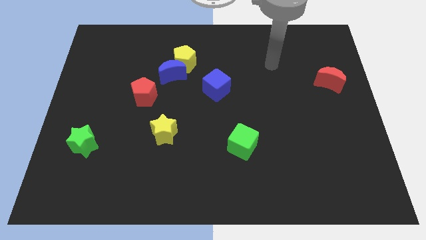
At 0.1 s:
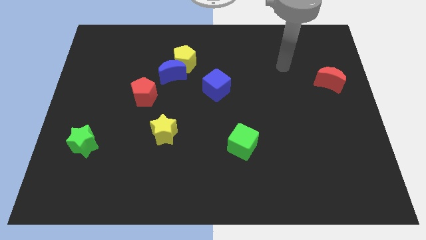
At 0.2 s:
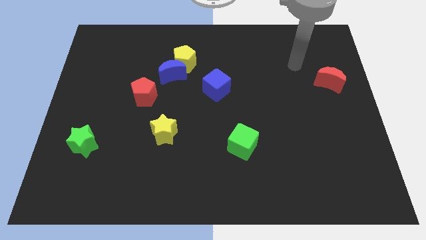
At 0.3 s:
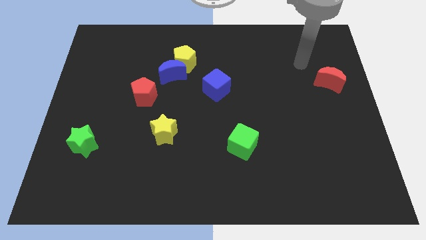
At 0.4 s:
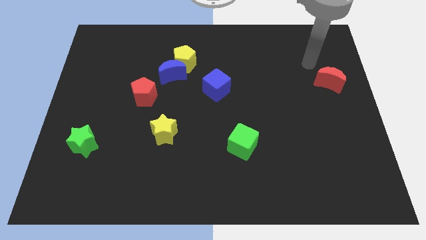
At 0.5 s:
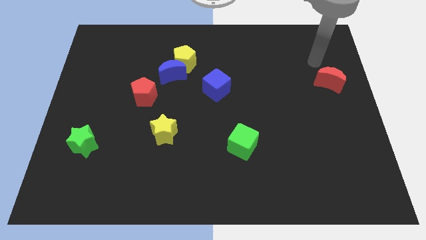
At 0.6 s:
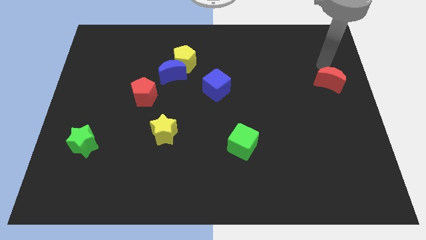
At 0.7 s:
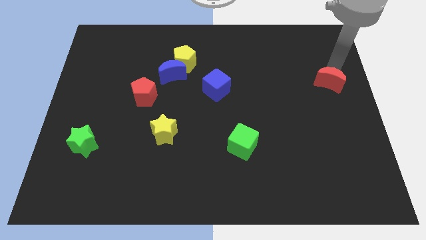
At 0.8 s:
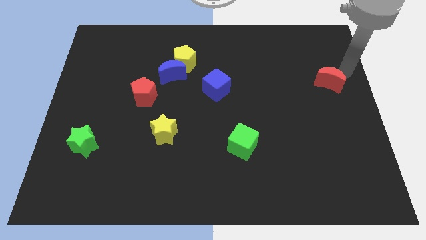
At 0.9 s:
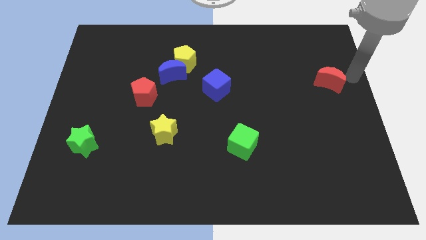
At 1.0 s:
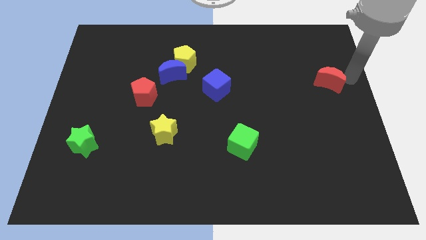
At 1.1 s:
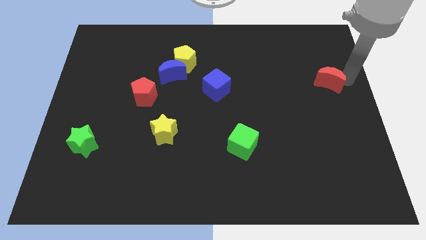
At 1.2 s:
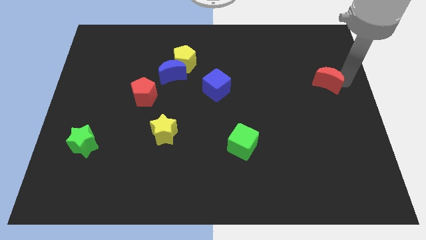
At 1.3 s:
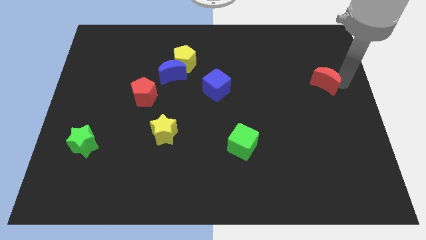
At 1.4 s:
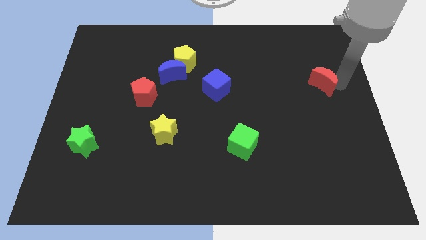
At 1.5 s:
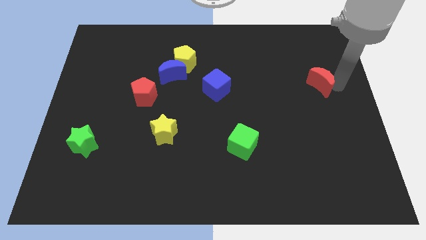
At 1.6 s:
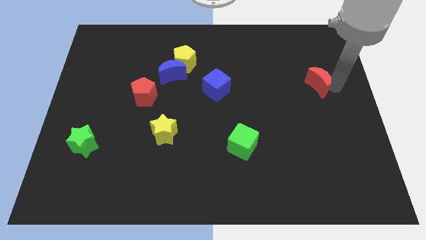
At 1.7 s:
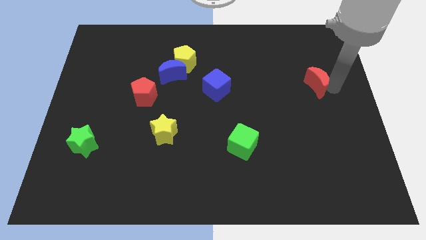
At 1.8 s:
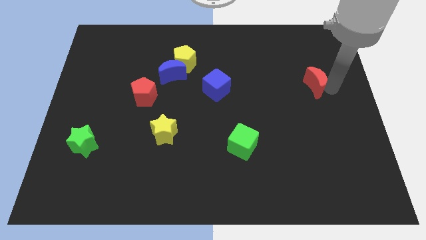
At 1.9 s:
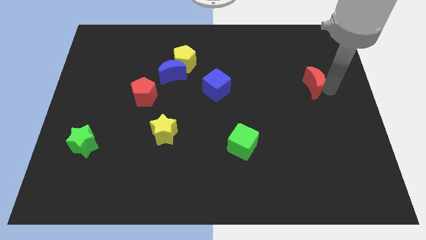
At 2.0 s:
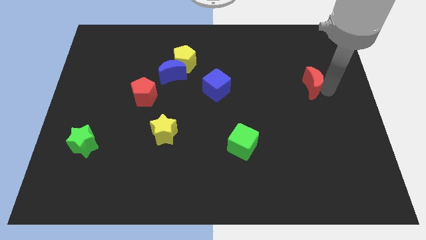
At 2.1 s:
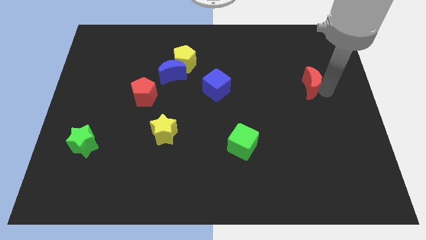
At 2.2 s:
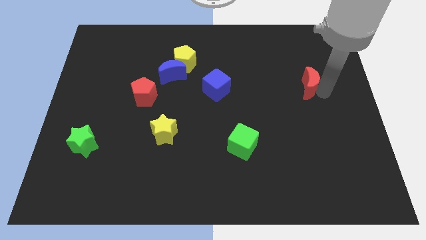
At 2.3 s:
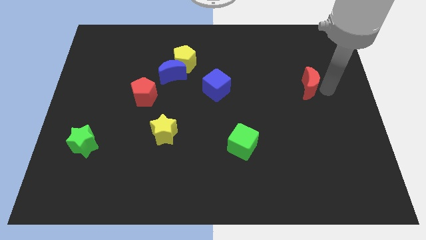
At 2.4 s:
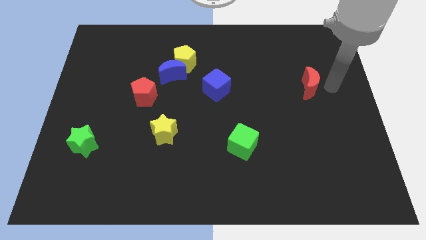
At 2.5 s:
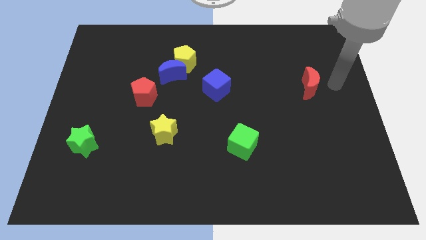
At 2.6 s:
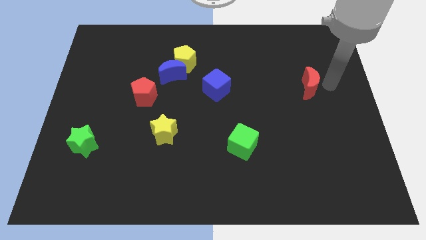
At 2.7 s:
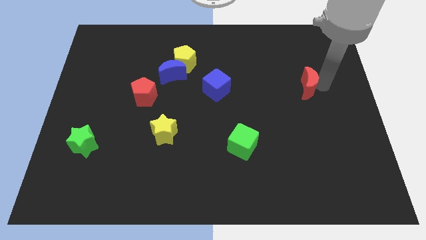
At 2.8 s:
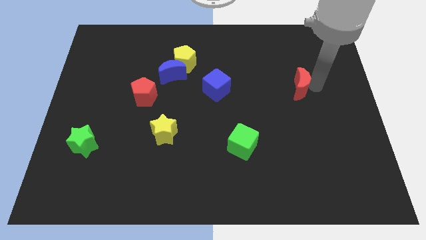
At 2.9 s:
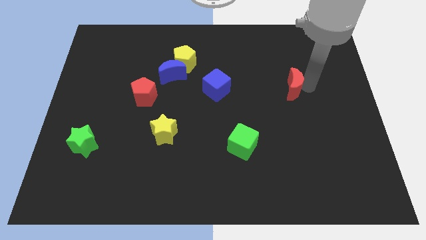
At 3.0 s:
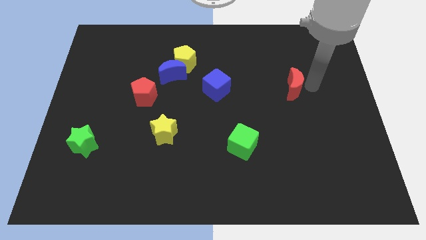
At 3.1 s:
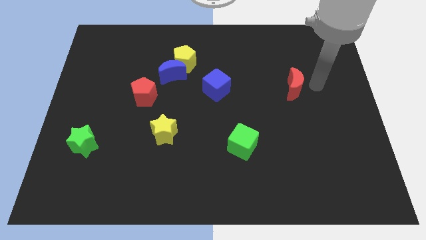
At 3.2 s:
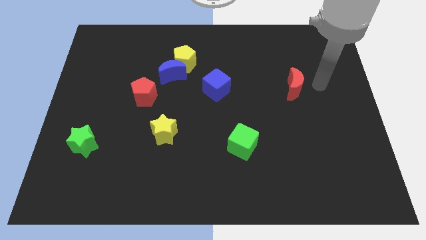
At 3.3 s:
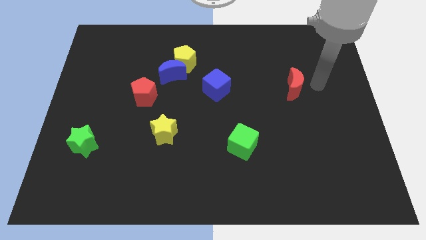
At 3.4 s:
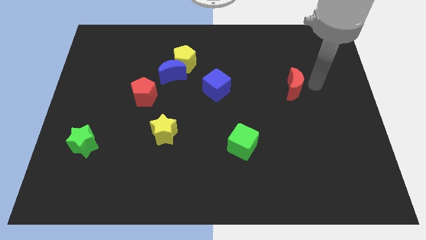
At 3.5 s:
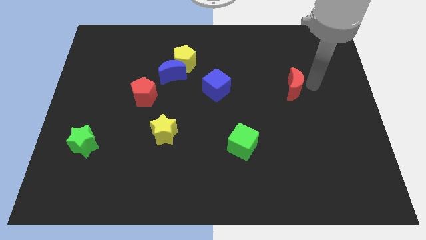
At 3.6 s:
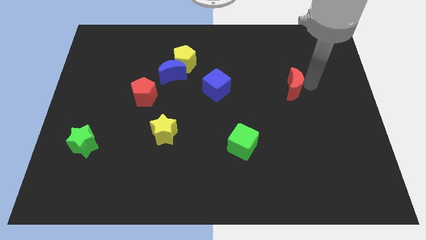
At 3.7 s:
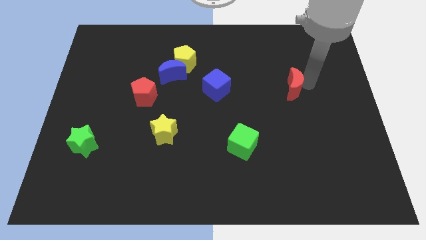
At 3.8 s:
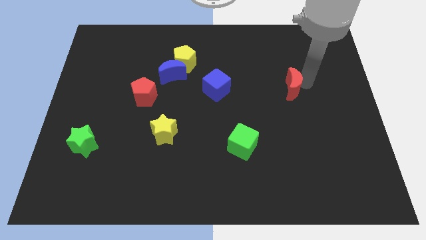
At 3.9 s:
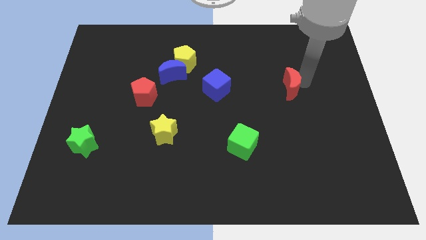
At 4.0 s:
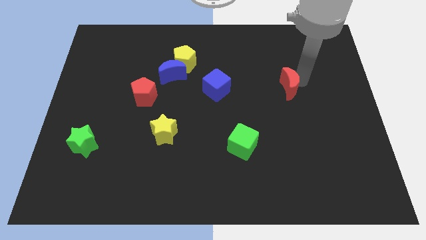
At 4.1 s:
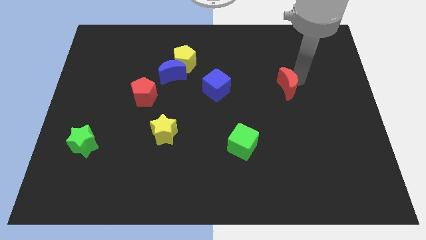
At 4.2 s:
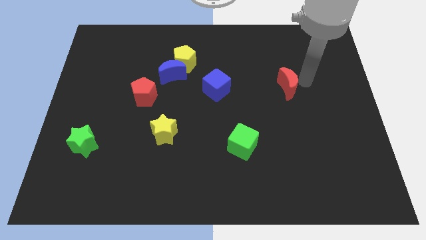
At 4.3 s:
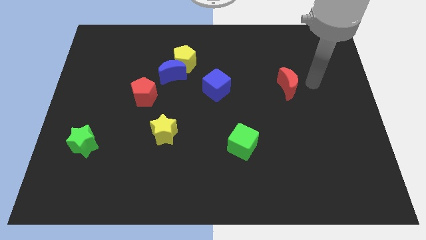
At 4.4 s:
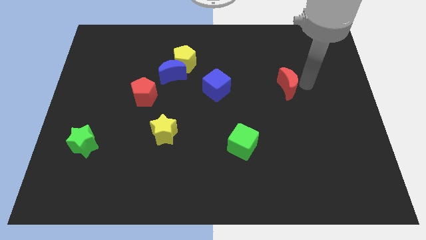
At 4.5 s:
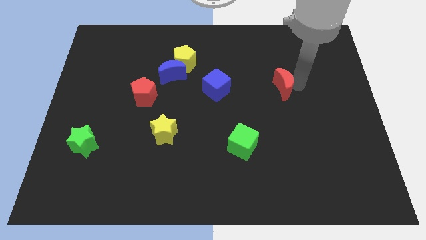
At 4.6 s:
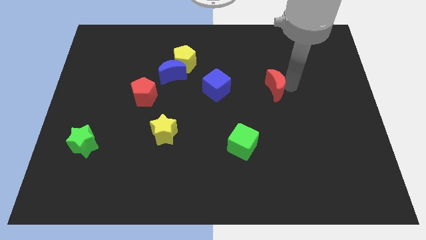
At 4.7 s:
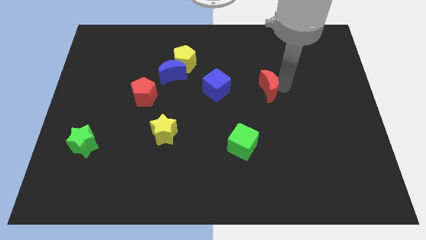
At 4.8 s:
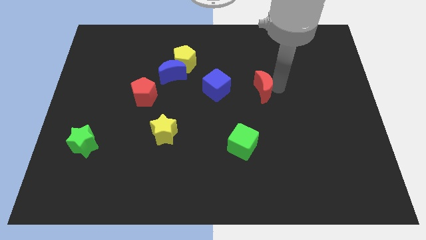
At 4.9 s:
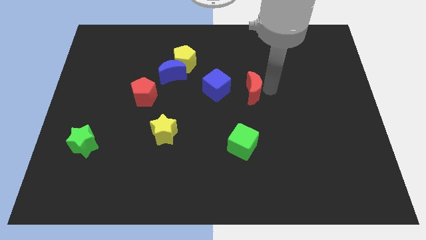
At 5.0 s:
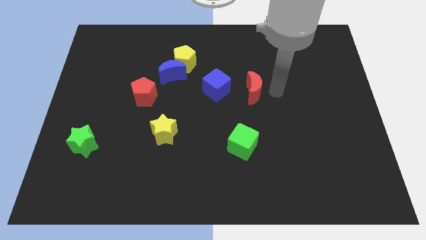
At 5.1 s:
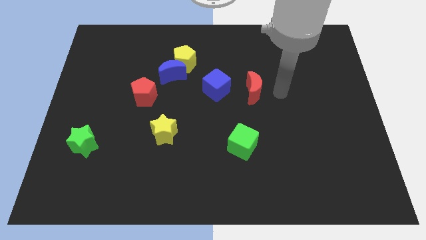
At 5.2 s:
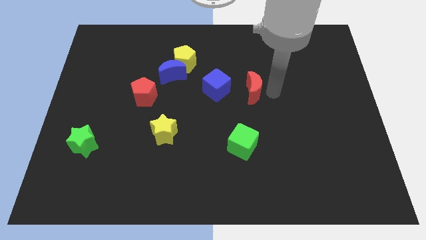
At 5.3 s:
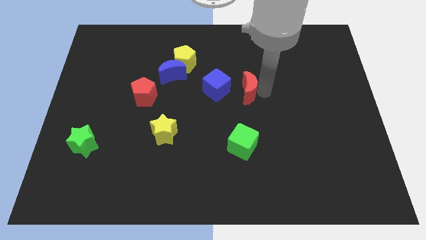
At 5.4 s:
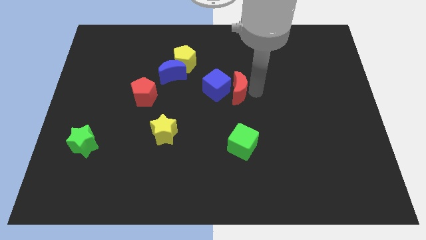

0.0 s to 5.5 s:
move the red moon to the blue cube

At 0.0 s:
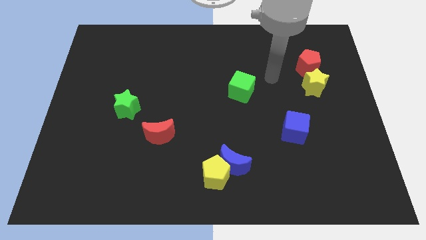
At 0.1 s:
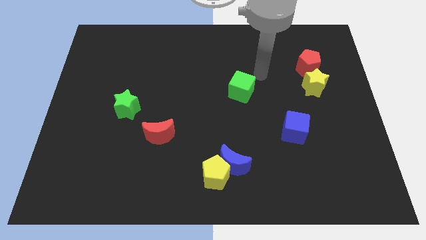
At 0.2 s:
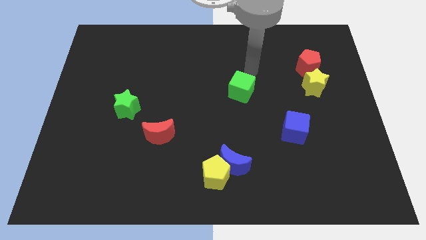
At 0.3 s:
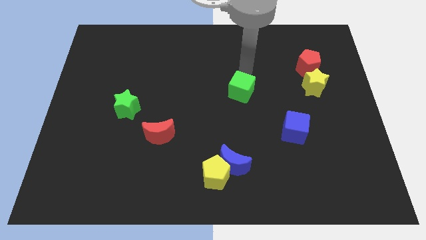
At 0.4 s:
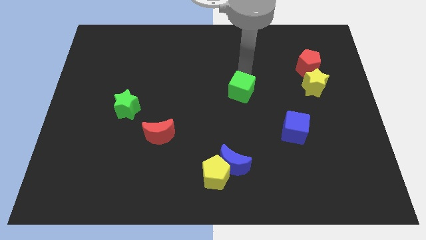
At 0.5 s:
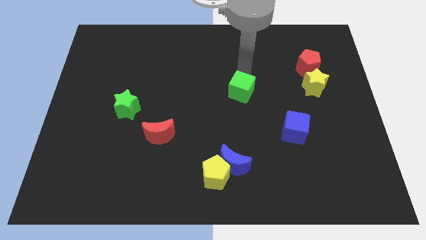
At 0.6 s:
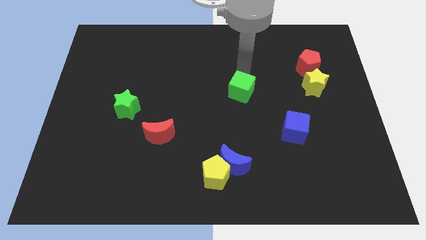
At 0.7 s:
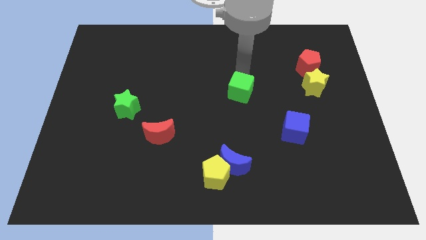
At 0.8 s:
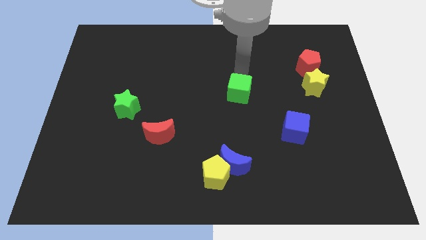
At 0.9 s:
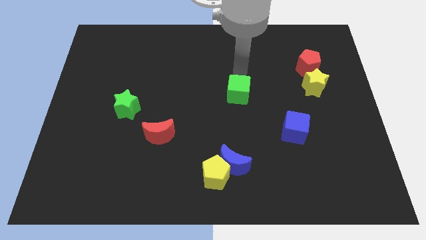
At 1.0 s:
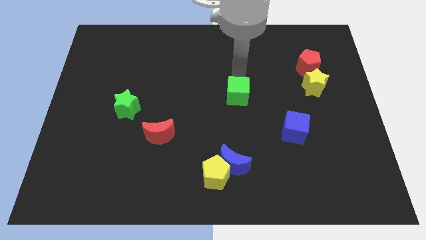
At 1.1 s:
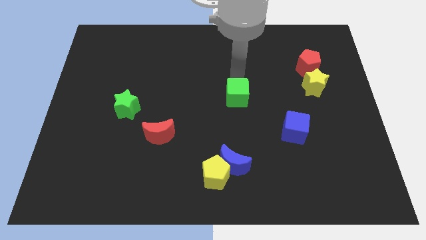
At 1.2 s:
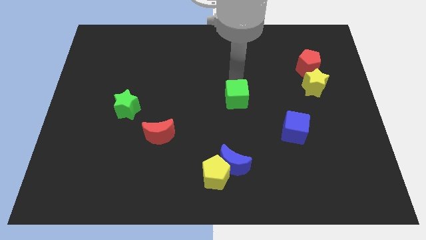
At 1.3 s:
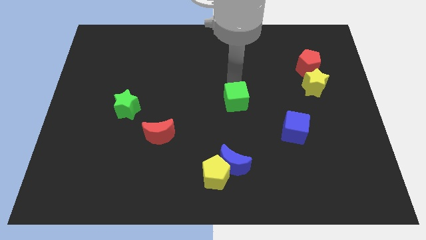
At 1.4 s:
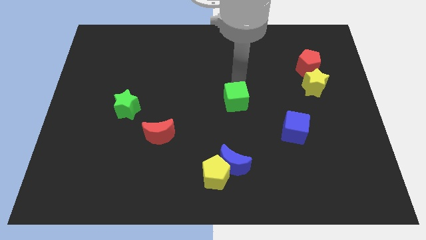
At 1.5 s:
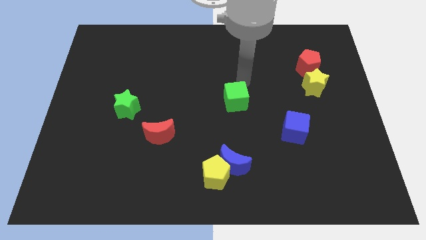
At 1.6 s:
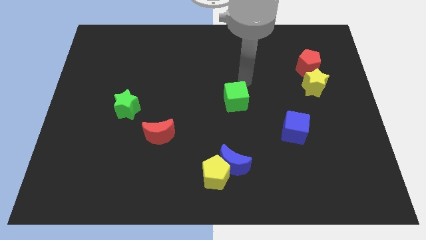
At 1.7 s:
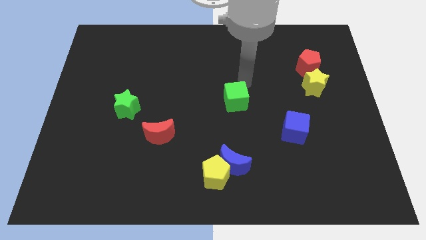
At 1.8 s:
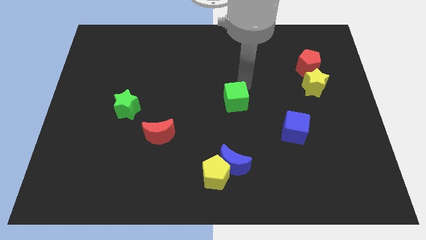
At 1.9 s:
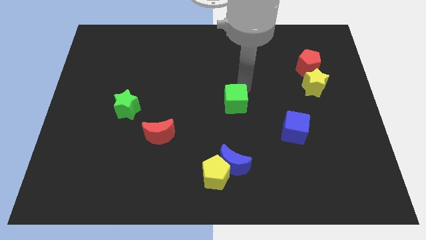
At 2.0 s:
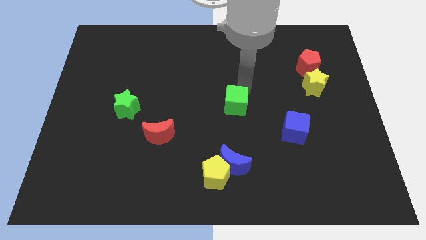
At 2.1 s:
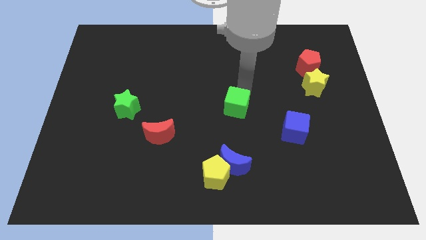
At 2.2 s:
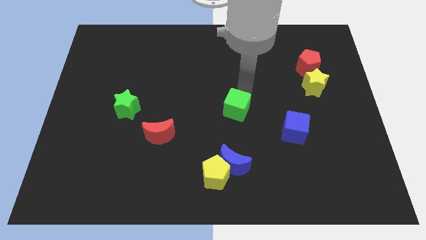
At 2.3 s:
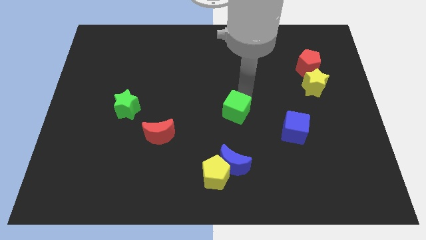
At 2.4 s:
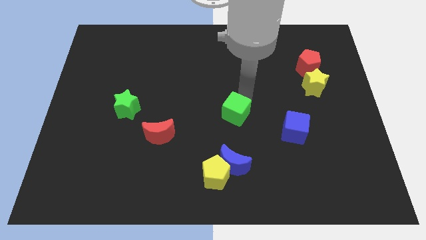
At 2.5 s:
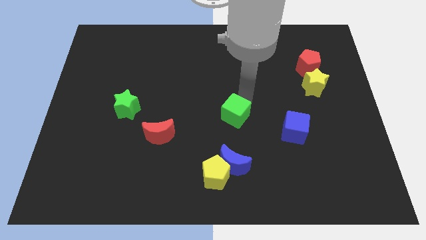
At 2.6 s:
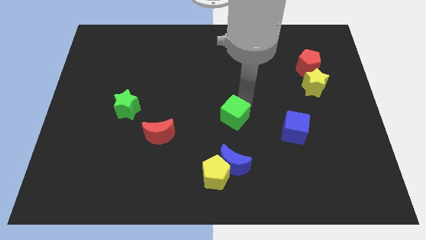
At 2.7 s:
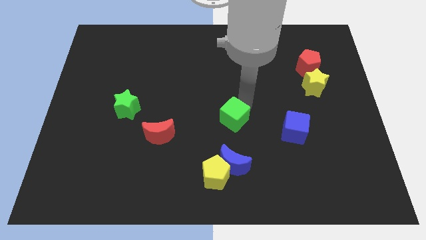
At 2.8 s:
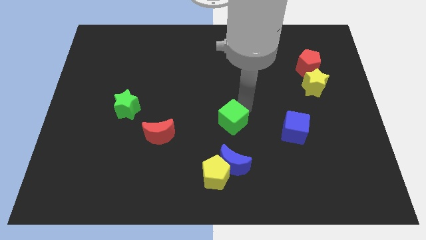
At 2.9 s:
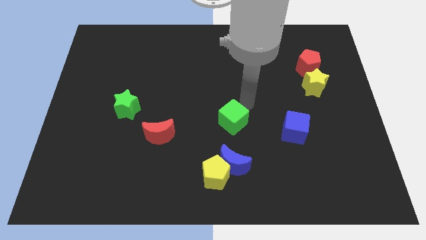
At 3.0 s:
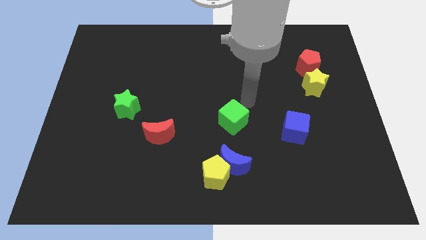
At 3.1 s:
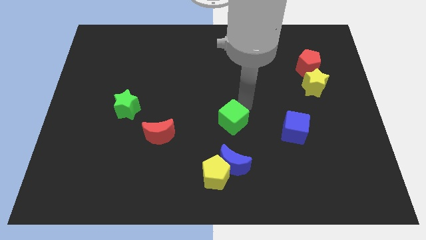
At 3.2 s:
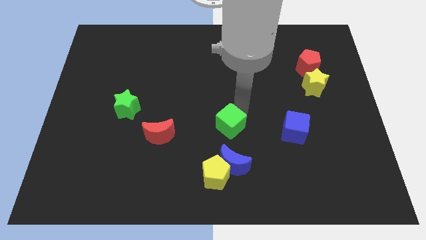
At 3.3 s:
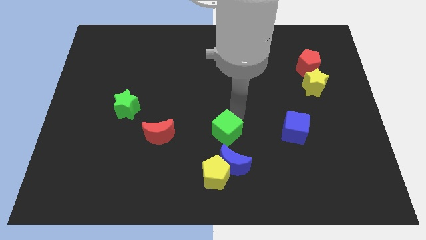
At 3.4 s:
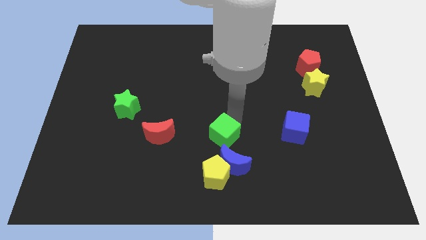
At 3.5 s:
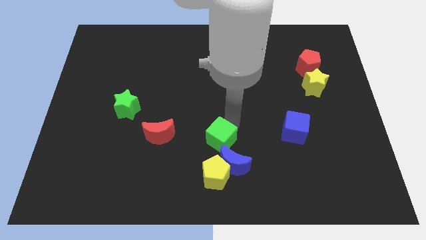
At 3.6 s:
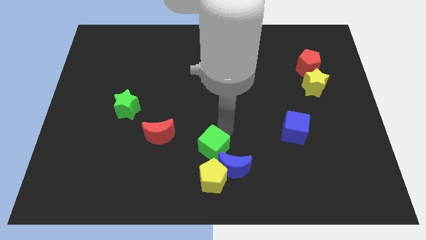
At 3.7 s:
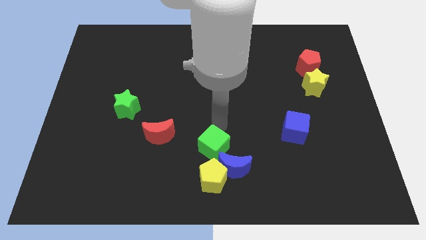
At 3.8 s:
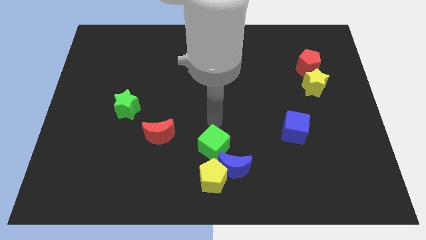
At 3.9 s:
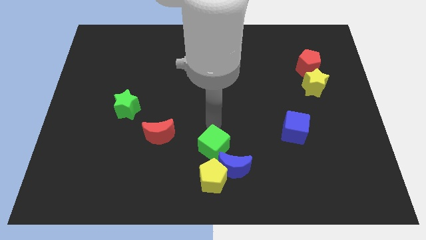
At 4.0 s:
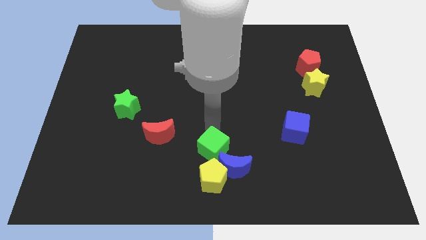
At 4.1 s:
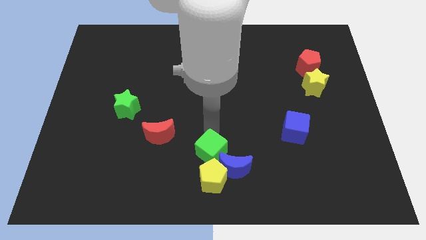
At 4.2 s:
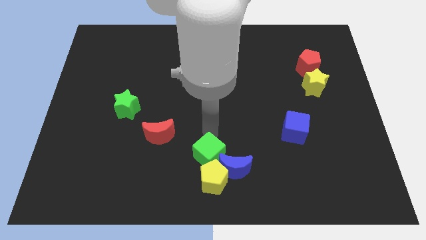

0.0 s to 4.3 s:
move the green cube close to the yellow pentagon
